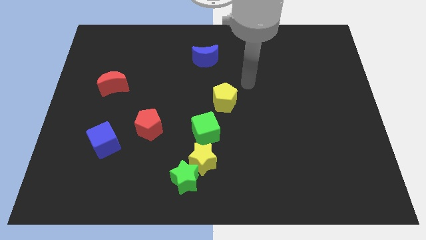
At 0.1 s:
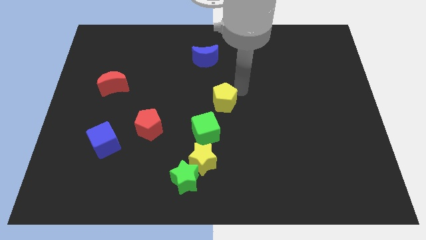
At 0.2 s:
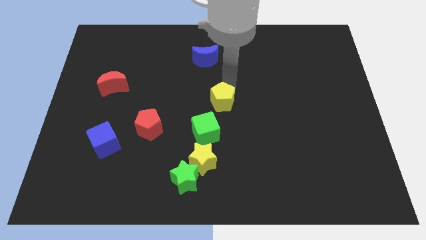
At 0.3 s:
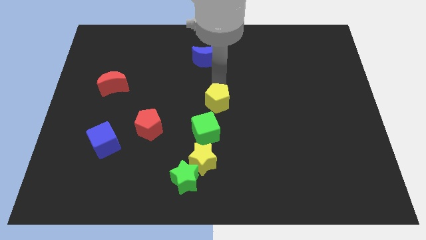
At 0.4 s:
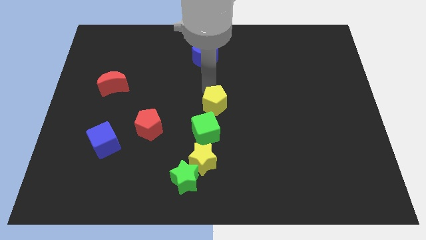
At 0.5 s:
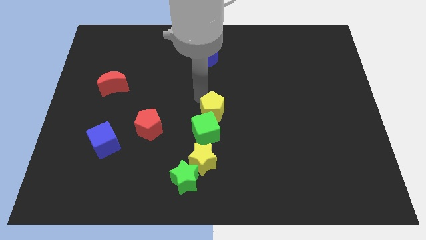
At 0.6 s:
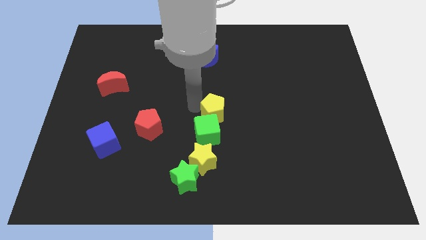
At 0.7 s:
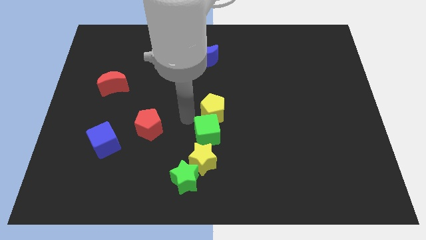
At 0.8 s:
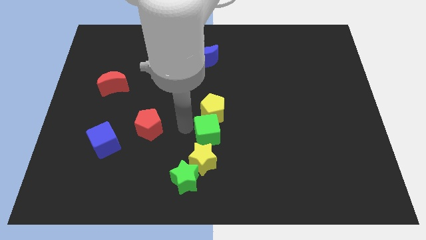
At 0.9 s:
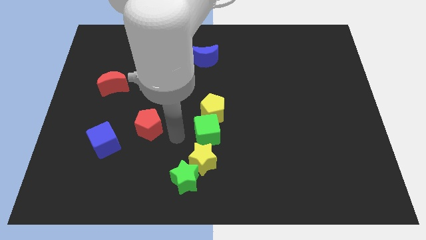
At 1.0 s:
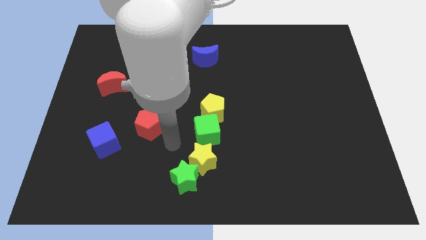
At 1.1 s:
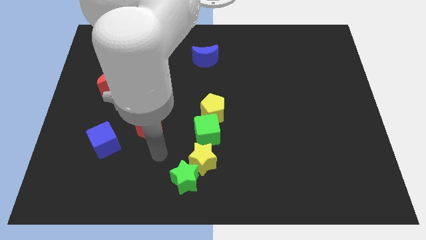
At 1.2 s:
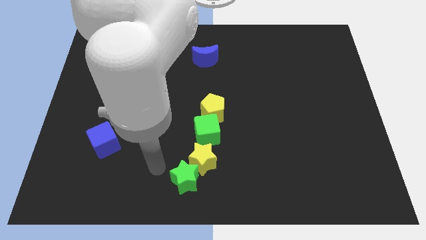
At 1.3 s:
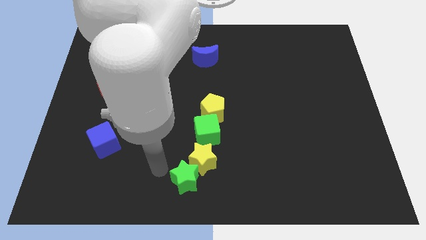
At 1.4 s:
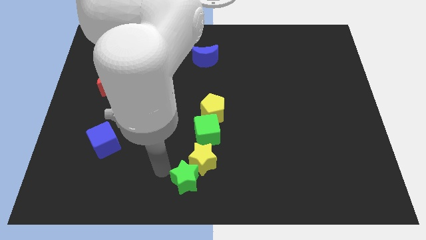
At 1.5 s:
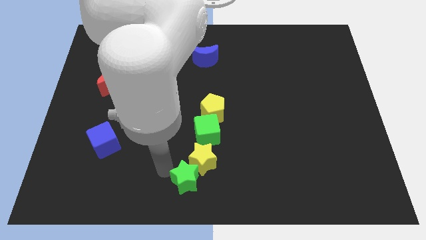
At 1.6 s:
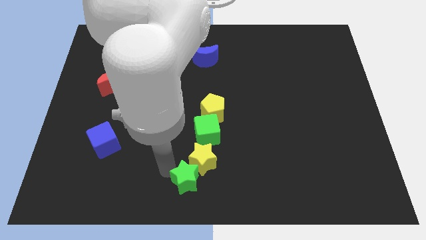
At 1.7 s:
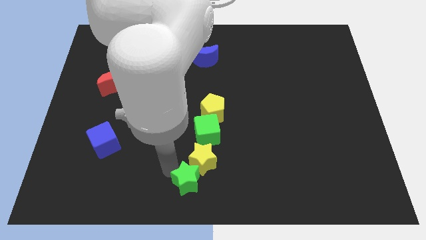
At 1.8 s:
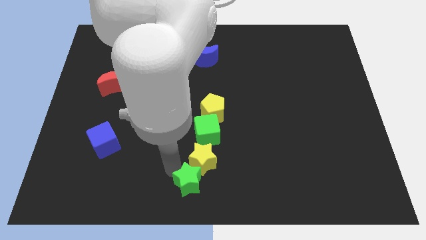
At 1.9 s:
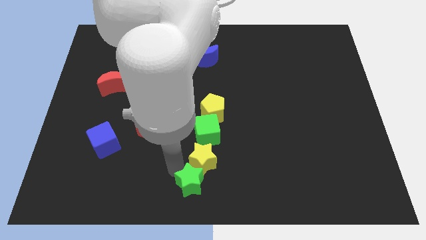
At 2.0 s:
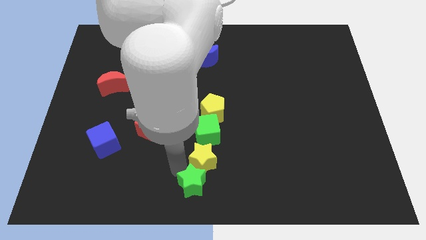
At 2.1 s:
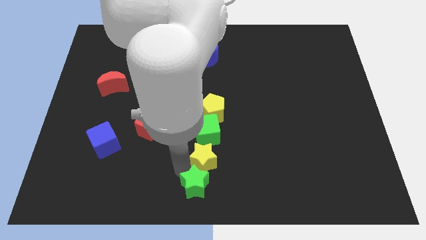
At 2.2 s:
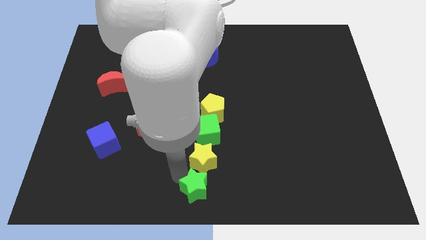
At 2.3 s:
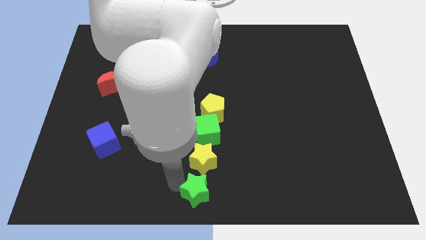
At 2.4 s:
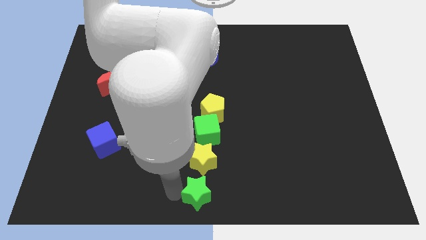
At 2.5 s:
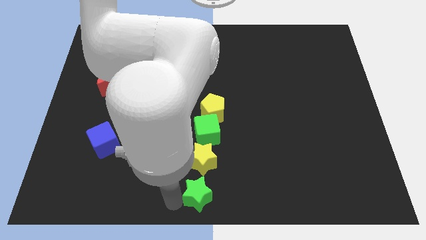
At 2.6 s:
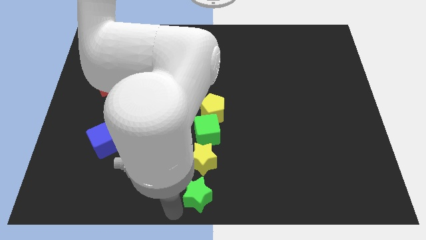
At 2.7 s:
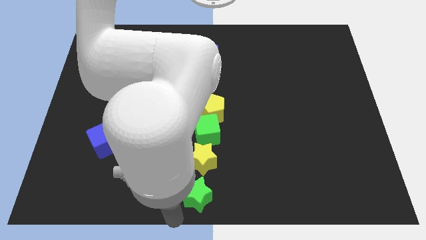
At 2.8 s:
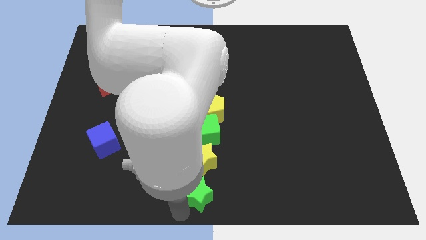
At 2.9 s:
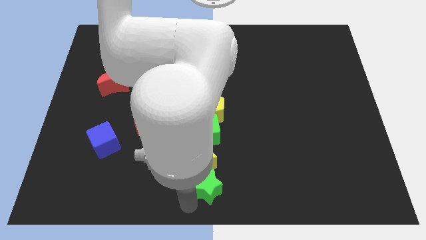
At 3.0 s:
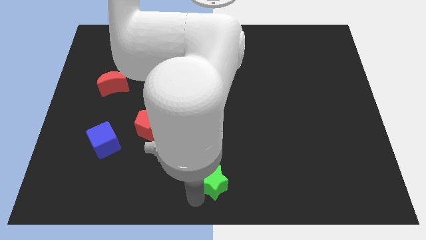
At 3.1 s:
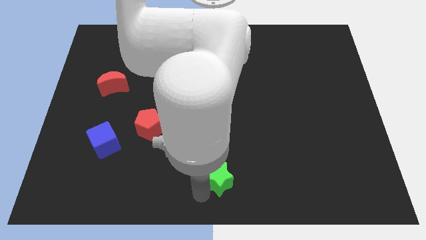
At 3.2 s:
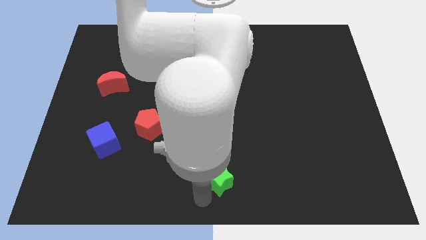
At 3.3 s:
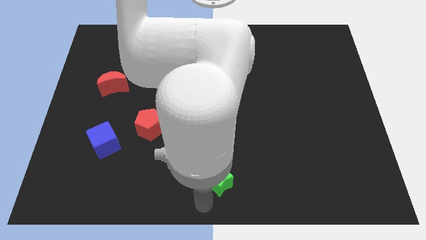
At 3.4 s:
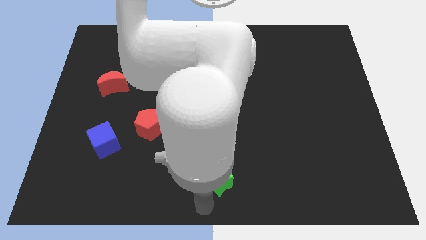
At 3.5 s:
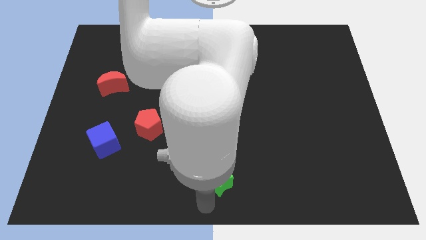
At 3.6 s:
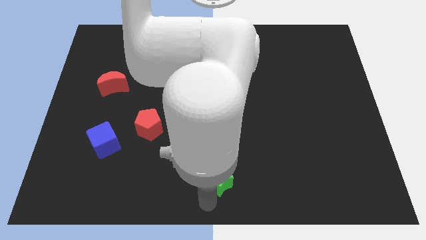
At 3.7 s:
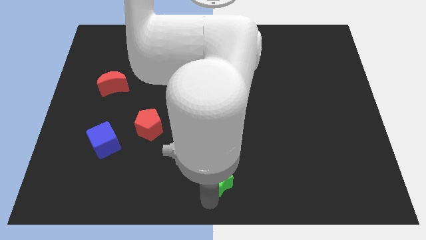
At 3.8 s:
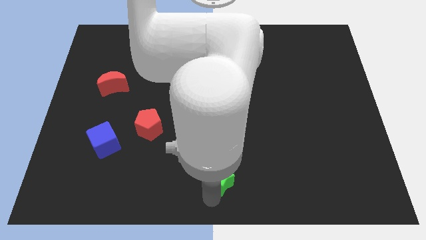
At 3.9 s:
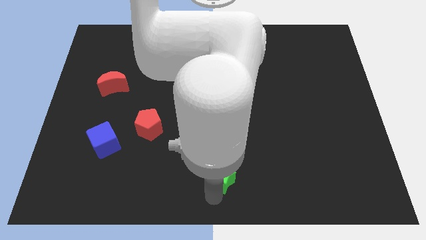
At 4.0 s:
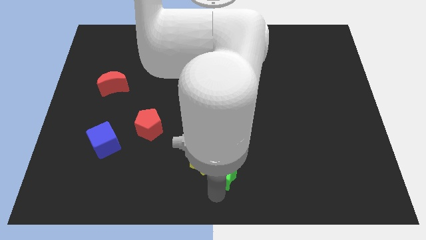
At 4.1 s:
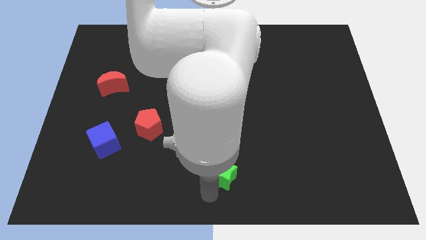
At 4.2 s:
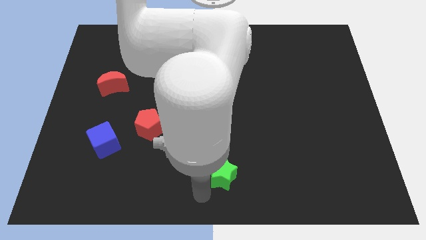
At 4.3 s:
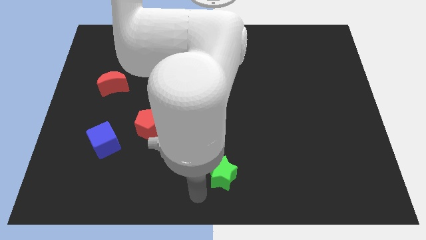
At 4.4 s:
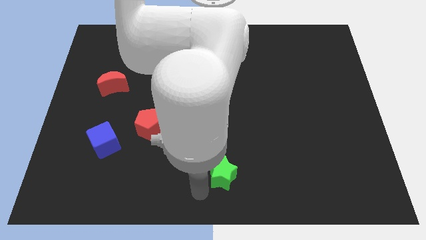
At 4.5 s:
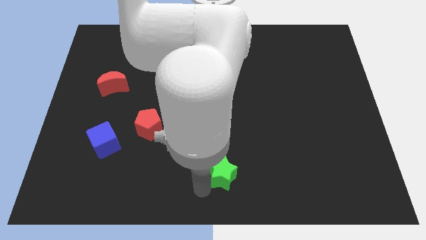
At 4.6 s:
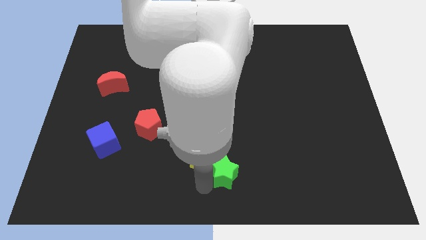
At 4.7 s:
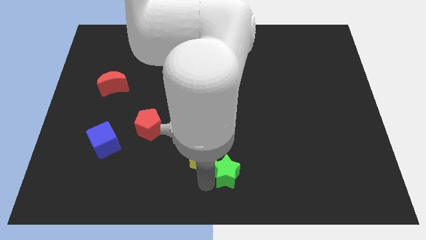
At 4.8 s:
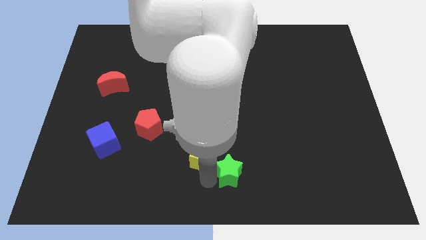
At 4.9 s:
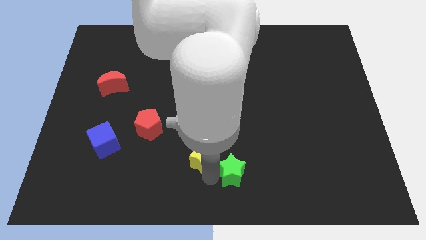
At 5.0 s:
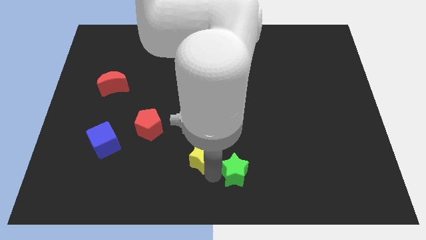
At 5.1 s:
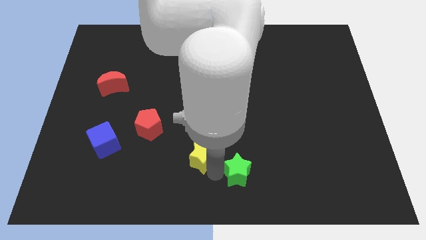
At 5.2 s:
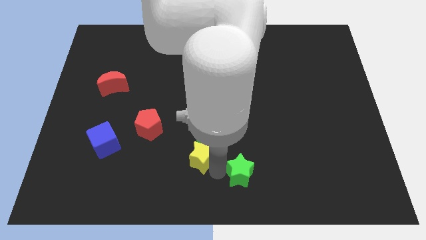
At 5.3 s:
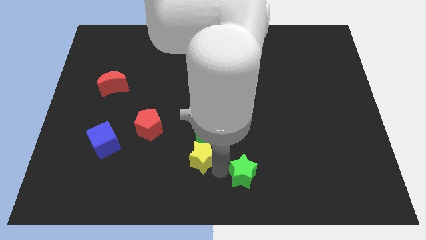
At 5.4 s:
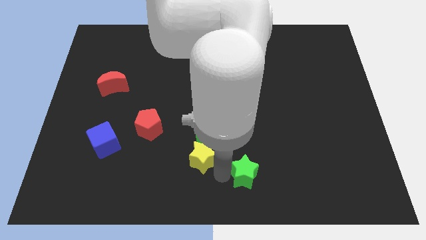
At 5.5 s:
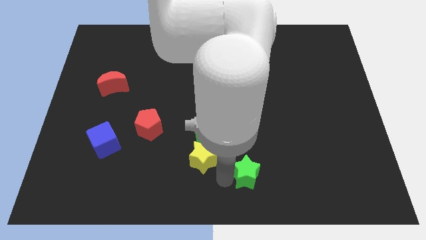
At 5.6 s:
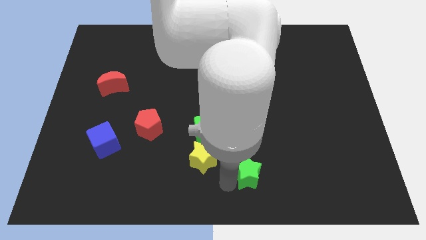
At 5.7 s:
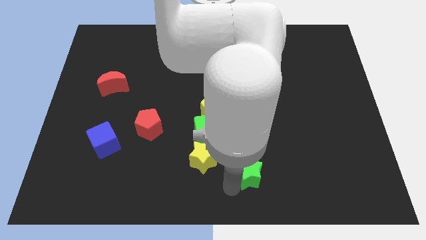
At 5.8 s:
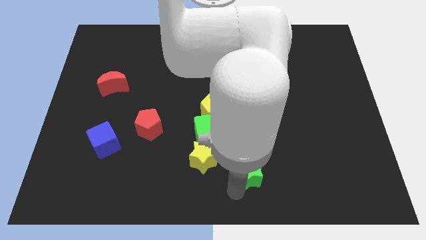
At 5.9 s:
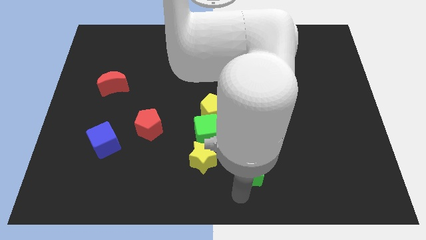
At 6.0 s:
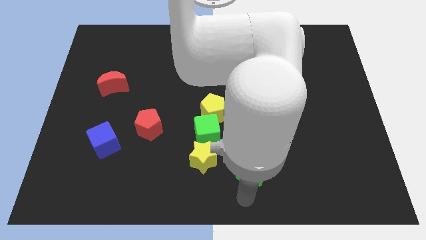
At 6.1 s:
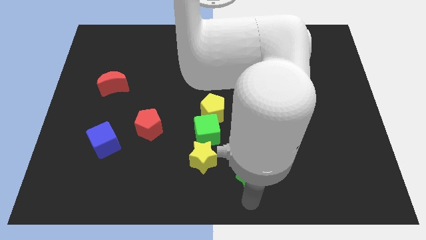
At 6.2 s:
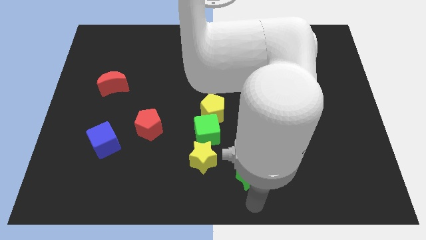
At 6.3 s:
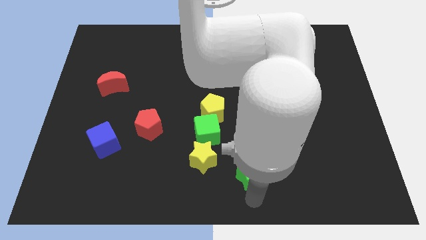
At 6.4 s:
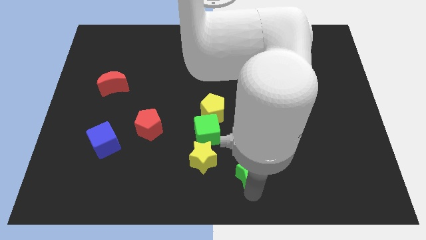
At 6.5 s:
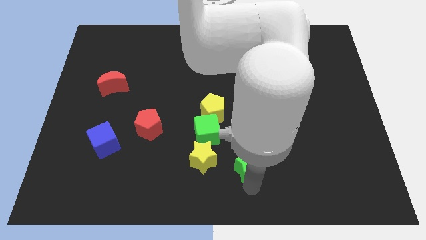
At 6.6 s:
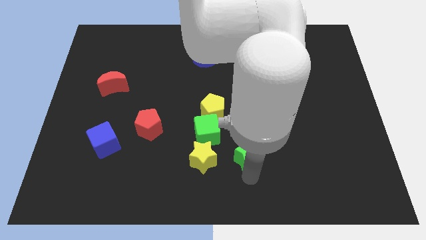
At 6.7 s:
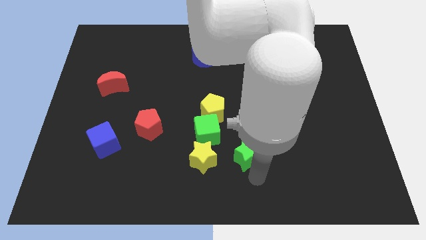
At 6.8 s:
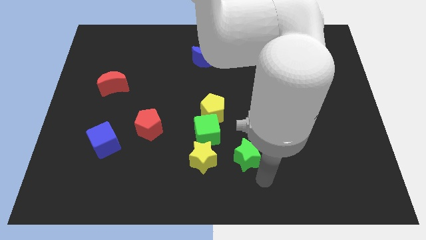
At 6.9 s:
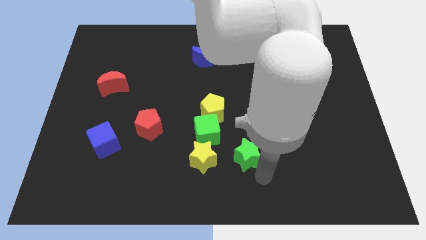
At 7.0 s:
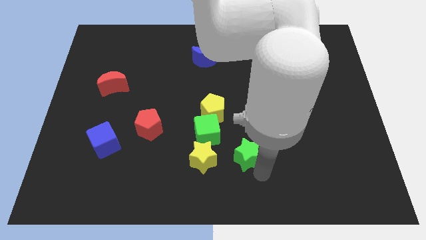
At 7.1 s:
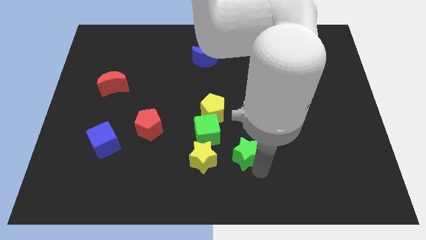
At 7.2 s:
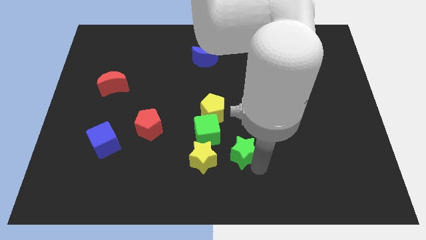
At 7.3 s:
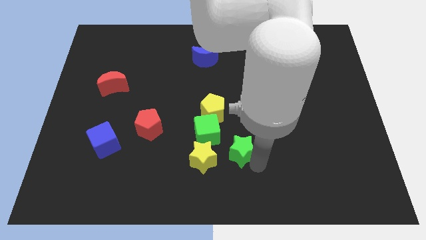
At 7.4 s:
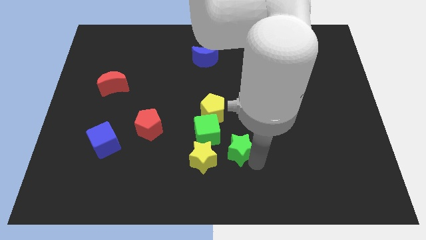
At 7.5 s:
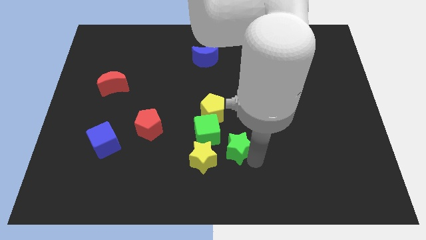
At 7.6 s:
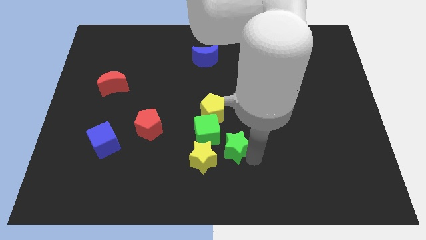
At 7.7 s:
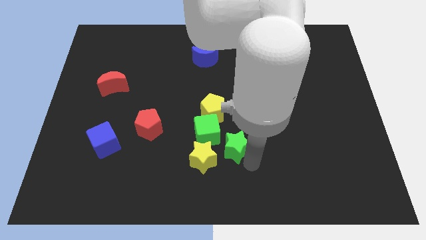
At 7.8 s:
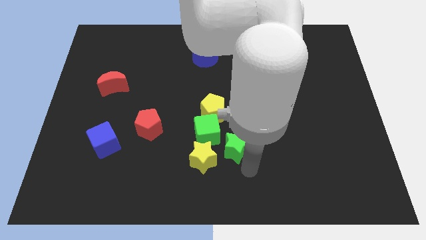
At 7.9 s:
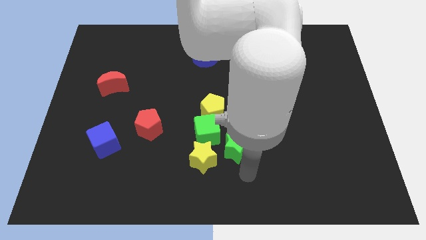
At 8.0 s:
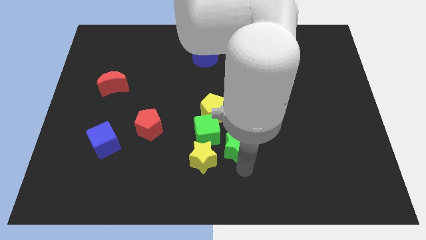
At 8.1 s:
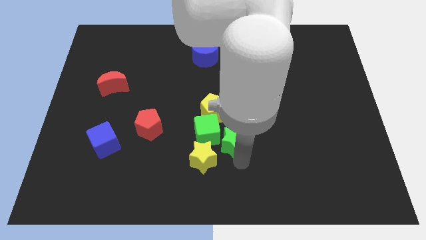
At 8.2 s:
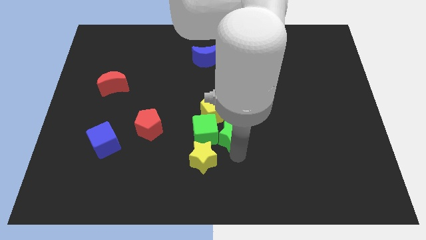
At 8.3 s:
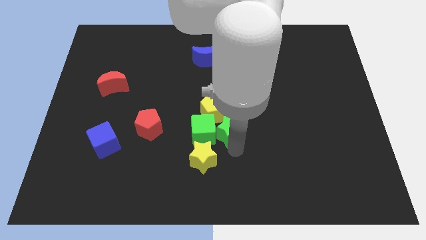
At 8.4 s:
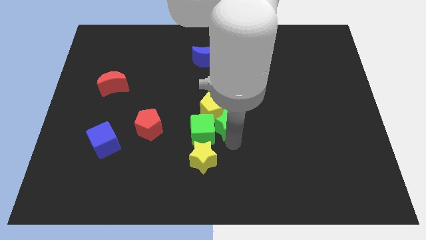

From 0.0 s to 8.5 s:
push the green star to the yellow pentagon
